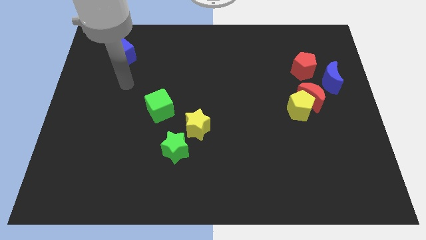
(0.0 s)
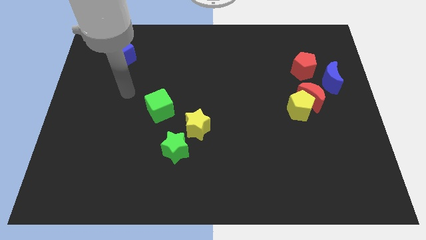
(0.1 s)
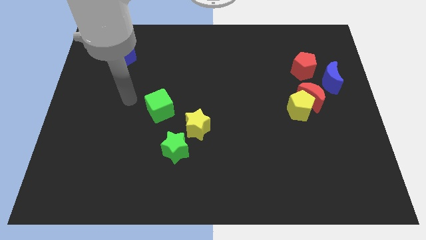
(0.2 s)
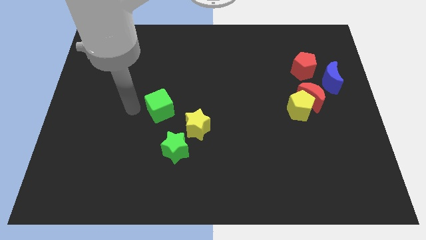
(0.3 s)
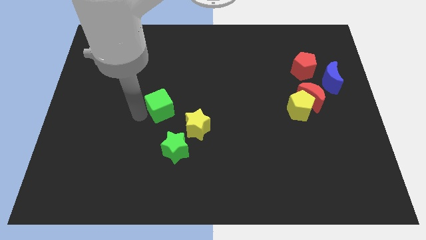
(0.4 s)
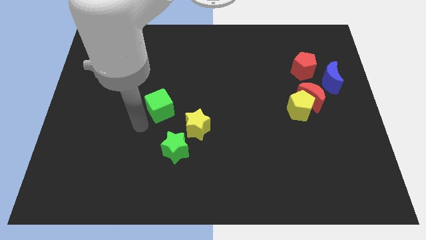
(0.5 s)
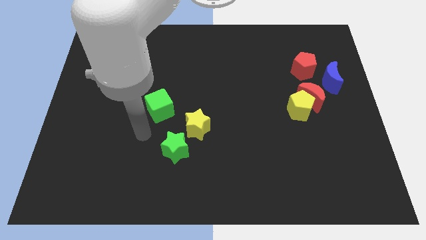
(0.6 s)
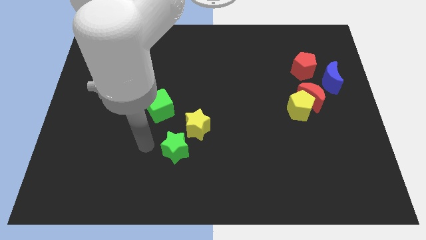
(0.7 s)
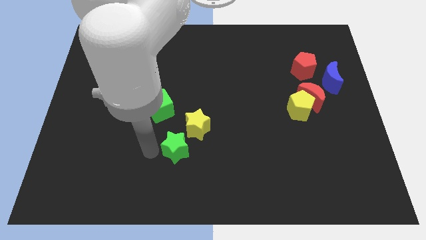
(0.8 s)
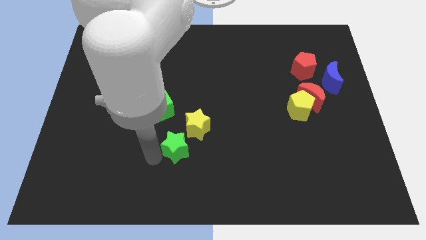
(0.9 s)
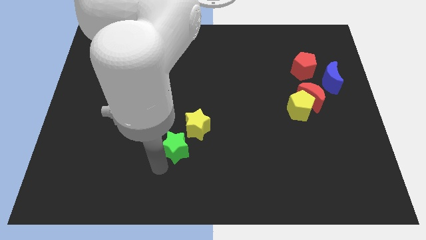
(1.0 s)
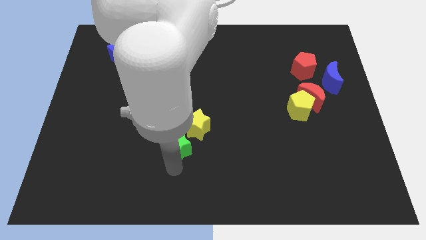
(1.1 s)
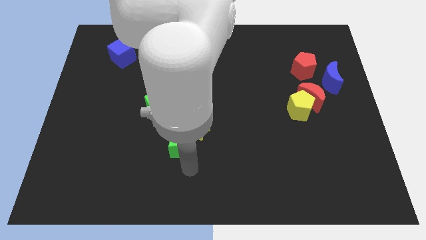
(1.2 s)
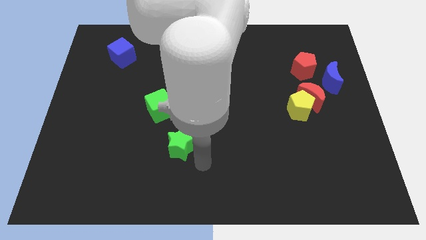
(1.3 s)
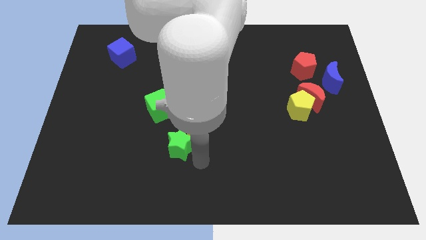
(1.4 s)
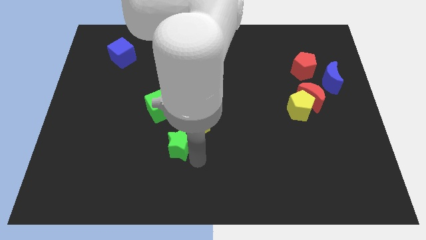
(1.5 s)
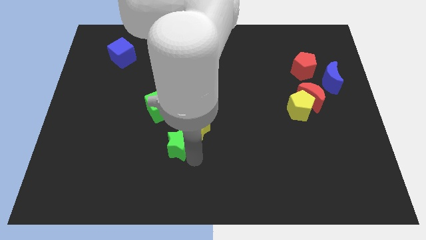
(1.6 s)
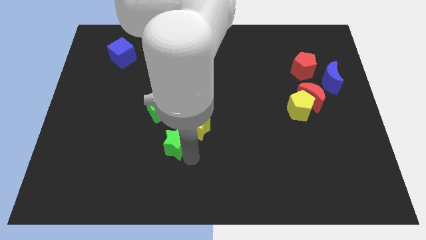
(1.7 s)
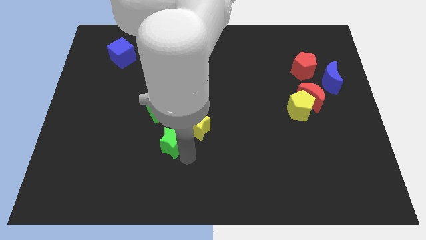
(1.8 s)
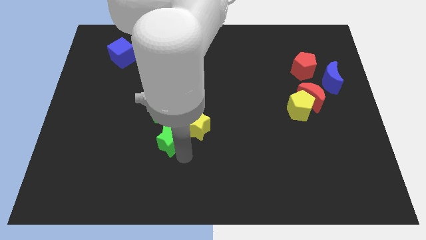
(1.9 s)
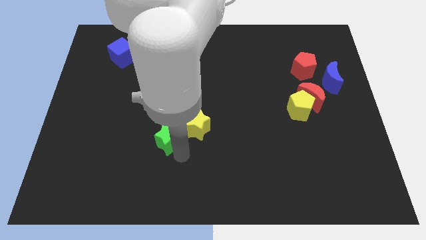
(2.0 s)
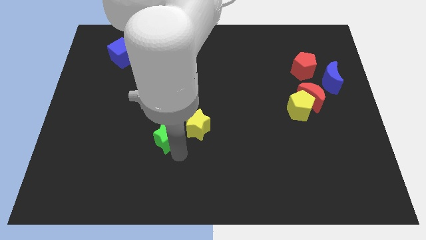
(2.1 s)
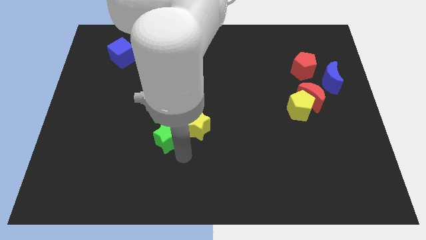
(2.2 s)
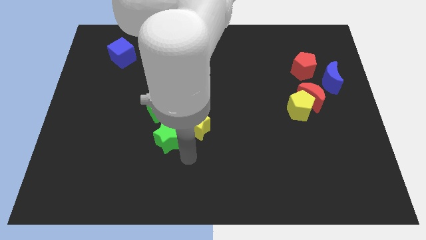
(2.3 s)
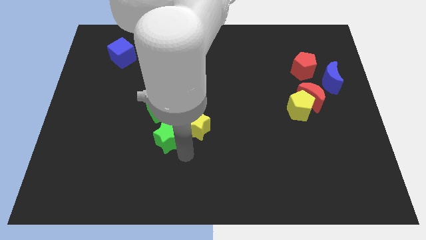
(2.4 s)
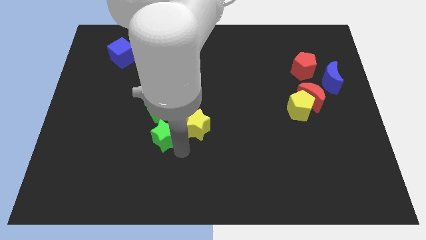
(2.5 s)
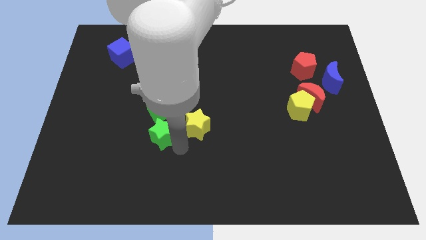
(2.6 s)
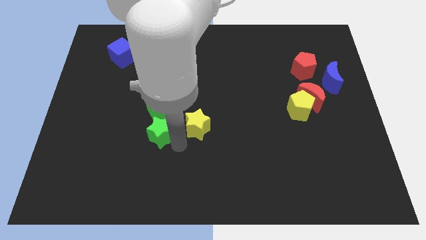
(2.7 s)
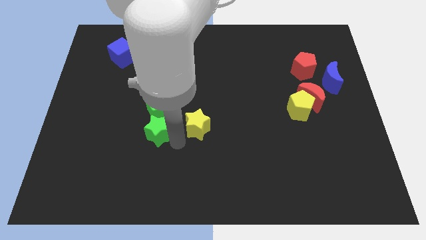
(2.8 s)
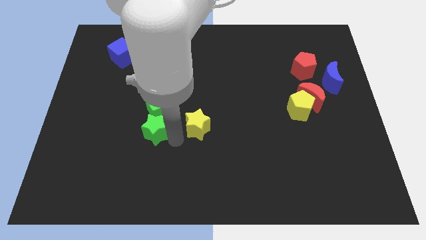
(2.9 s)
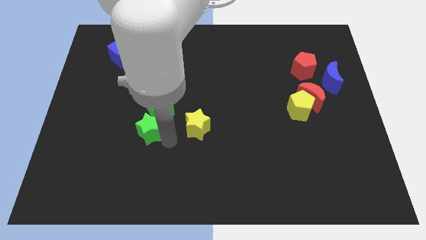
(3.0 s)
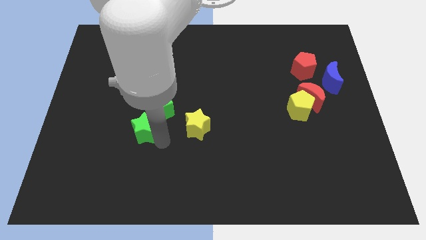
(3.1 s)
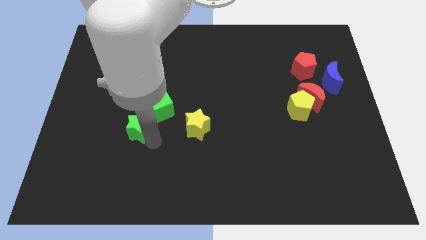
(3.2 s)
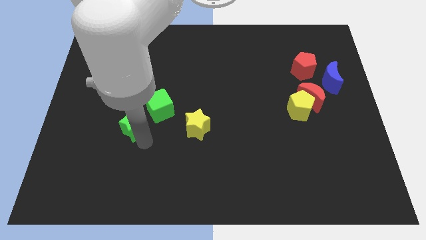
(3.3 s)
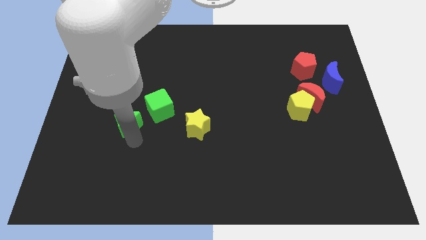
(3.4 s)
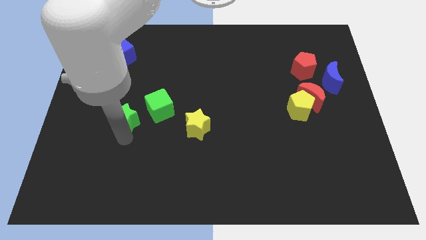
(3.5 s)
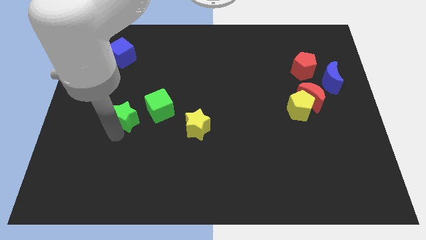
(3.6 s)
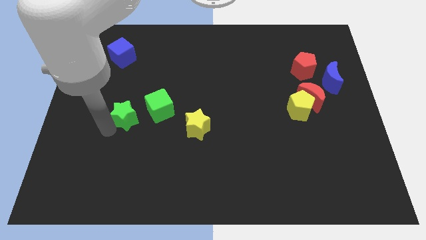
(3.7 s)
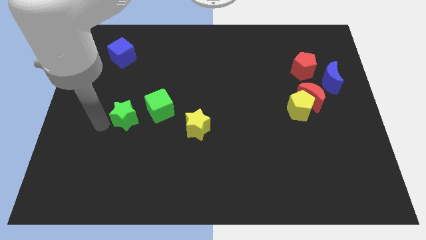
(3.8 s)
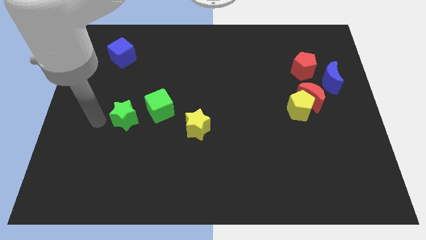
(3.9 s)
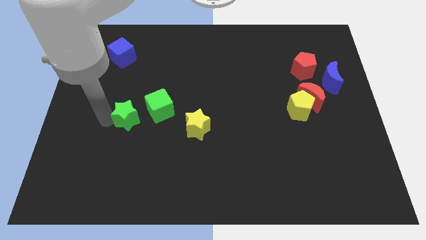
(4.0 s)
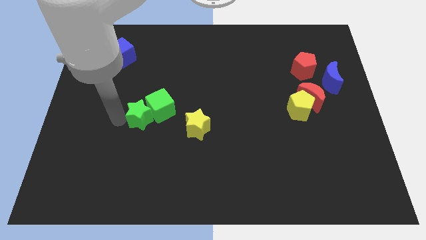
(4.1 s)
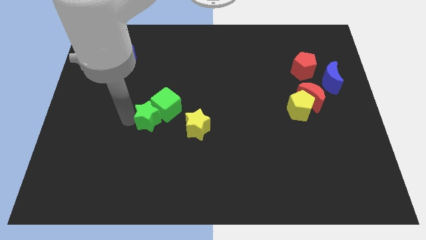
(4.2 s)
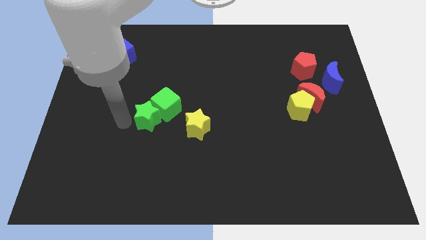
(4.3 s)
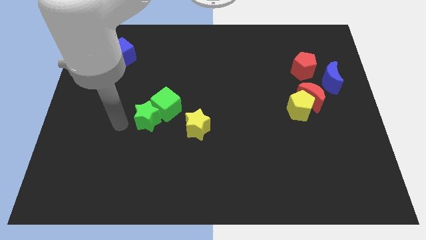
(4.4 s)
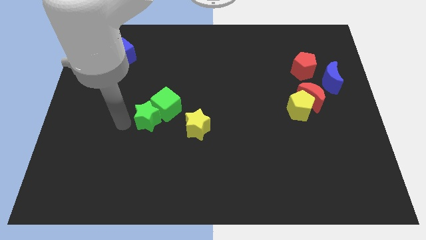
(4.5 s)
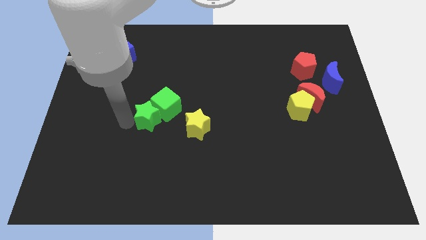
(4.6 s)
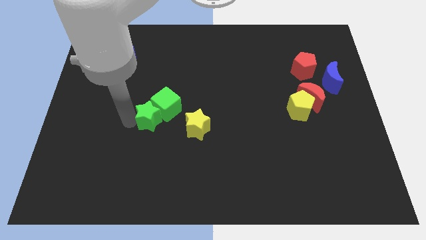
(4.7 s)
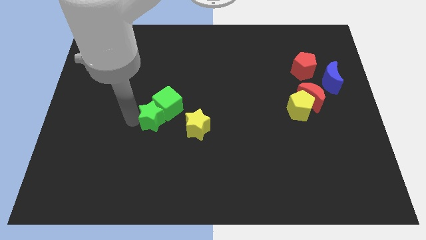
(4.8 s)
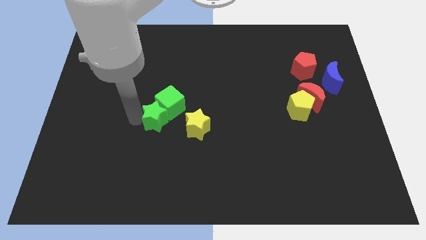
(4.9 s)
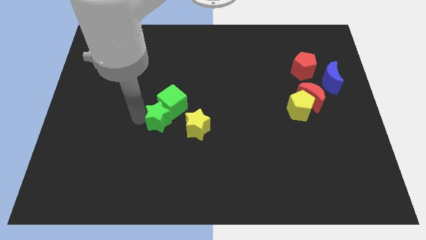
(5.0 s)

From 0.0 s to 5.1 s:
move the green star upwards a little

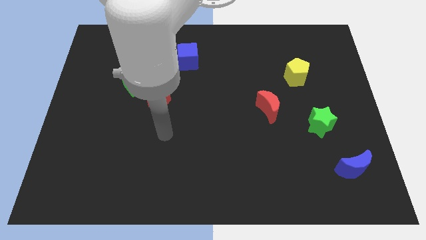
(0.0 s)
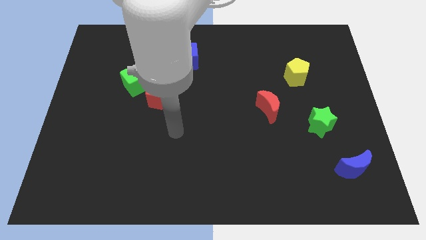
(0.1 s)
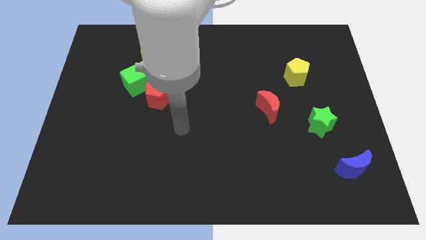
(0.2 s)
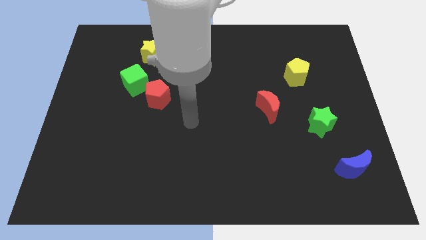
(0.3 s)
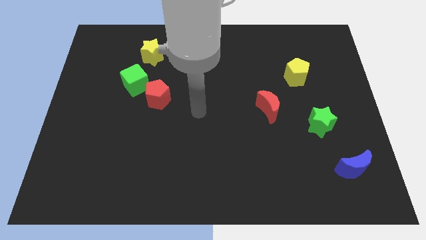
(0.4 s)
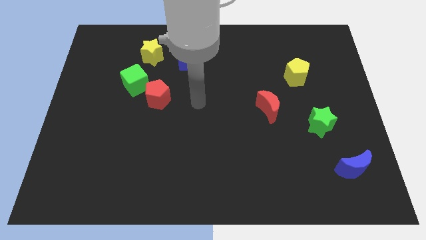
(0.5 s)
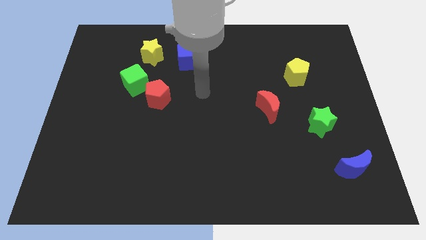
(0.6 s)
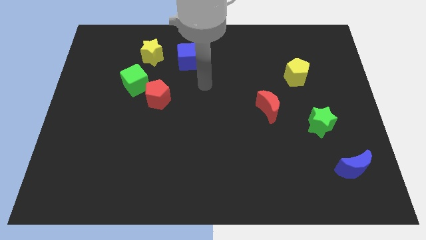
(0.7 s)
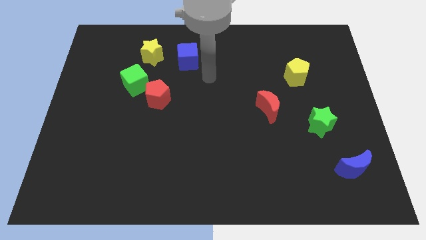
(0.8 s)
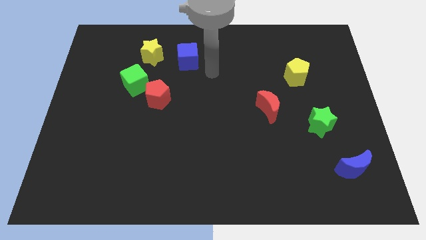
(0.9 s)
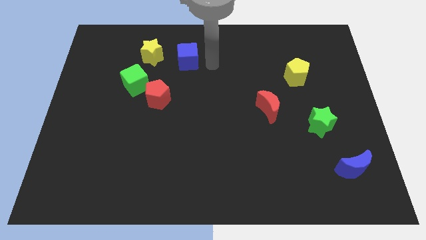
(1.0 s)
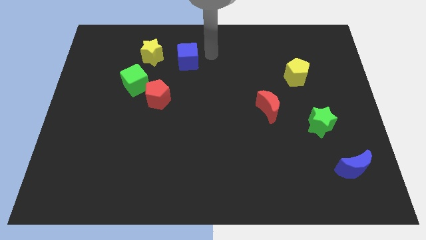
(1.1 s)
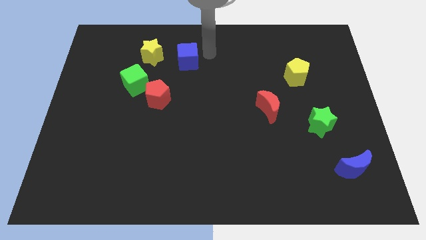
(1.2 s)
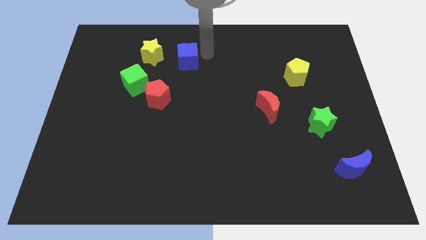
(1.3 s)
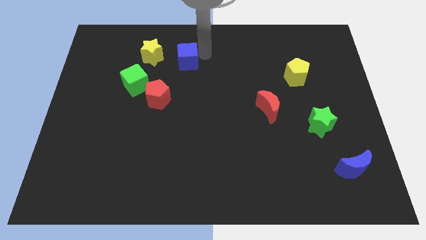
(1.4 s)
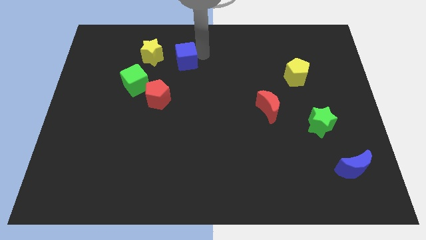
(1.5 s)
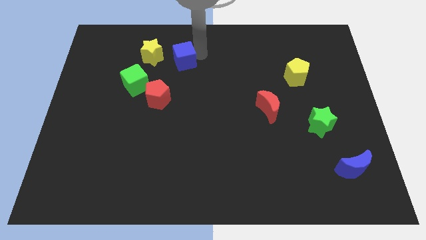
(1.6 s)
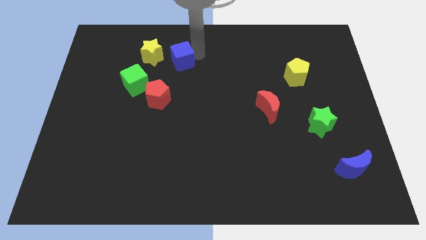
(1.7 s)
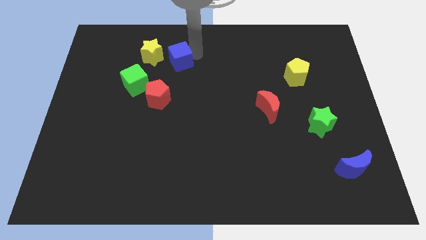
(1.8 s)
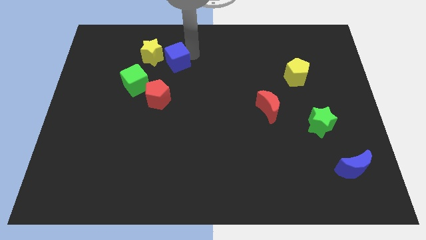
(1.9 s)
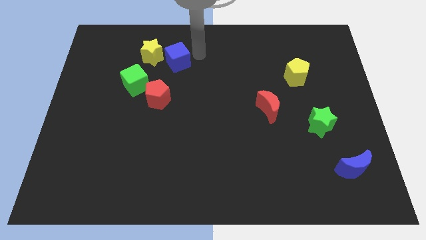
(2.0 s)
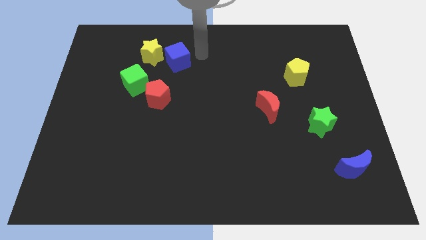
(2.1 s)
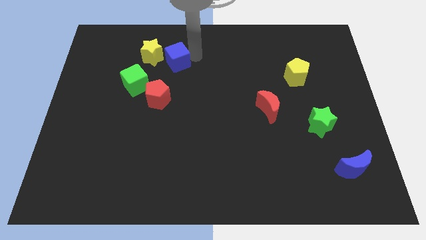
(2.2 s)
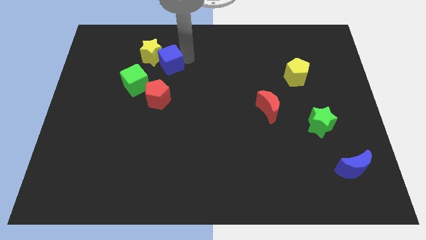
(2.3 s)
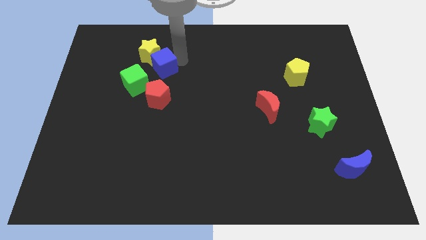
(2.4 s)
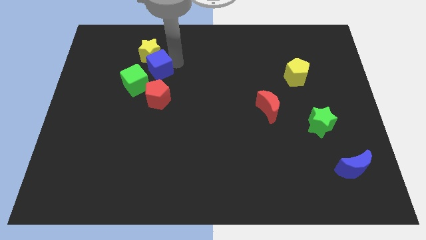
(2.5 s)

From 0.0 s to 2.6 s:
push the blue cube slightly diagonally downwards and to the left

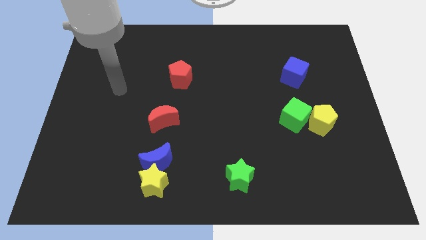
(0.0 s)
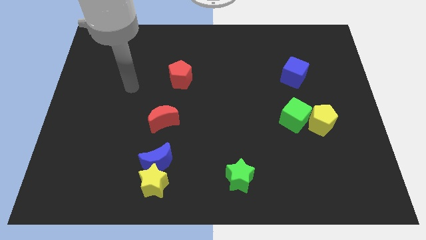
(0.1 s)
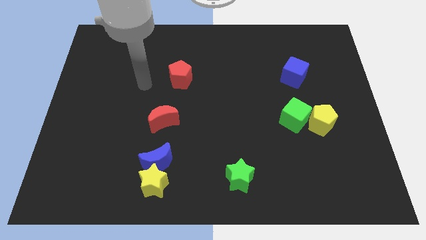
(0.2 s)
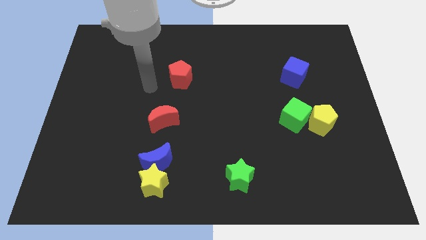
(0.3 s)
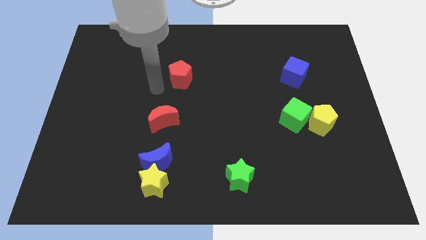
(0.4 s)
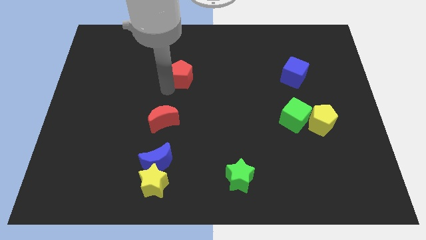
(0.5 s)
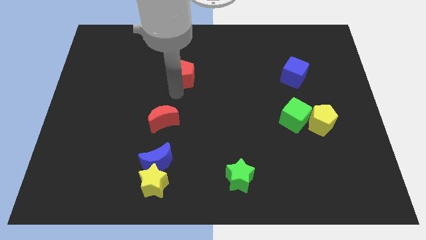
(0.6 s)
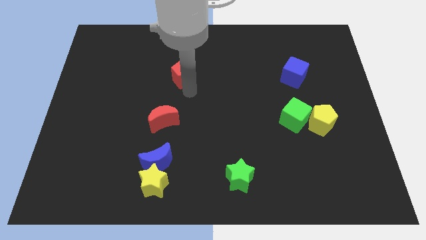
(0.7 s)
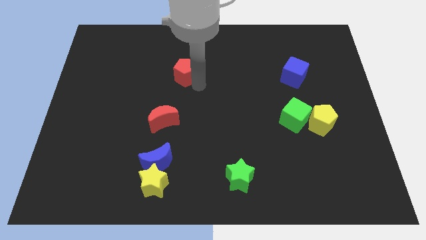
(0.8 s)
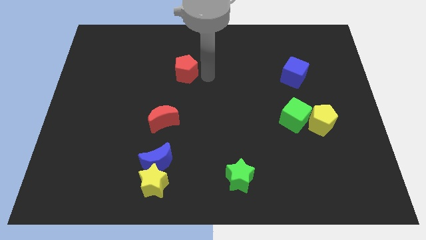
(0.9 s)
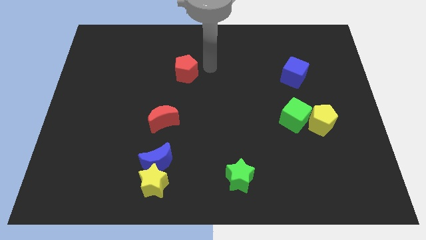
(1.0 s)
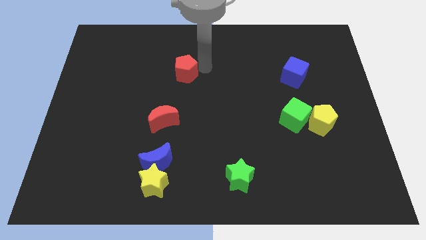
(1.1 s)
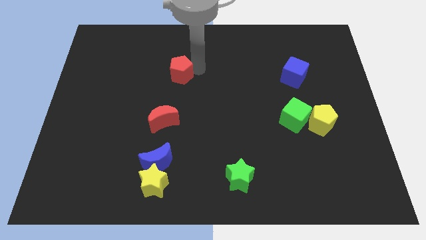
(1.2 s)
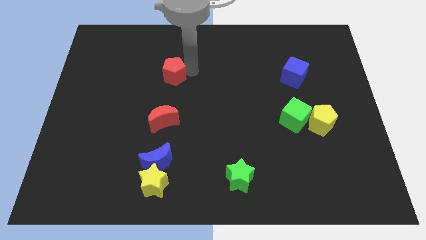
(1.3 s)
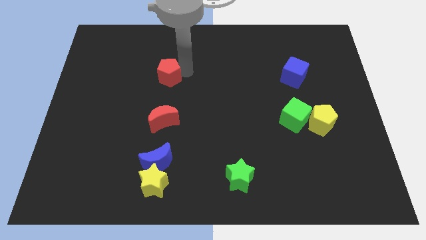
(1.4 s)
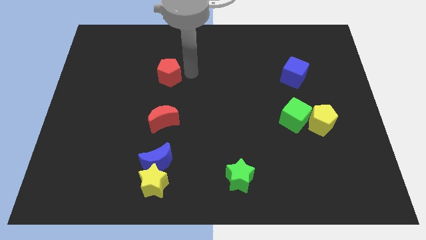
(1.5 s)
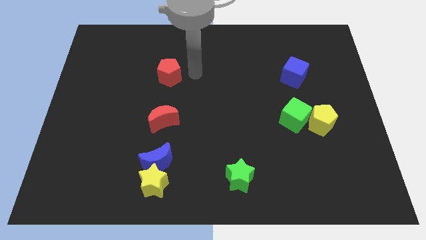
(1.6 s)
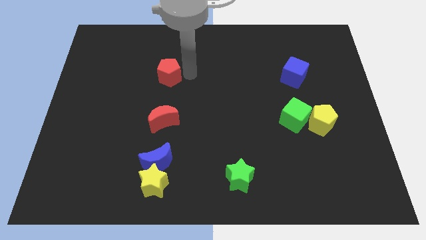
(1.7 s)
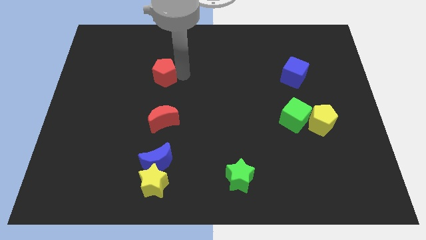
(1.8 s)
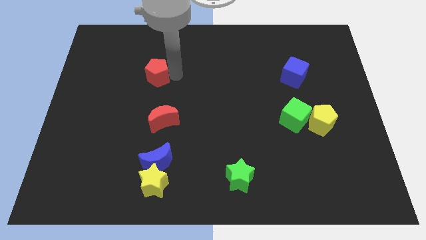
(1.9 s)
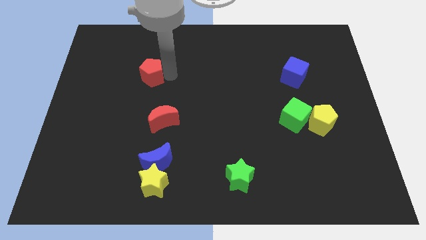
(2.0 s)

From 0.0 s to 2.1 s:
slightly push the red pentagon to the left
